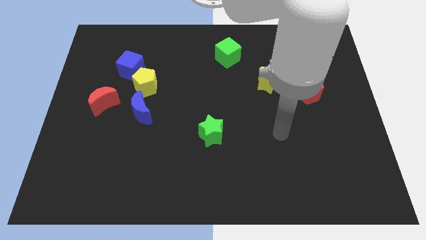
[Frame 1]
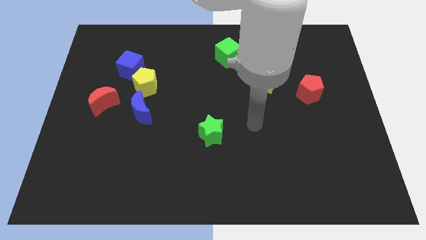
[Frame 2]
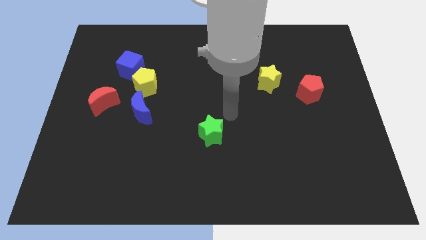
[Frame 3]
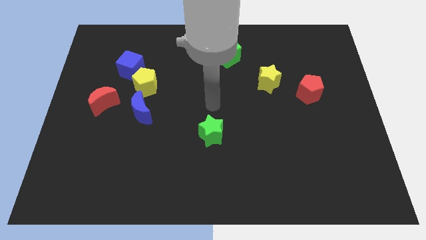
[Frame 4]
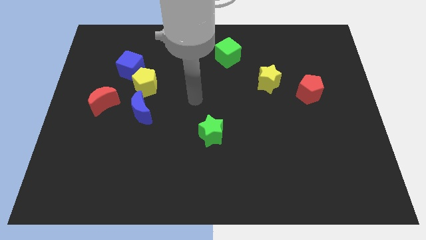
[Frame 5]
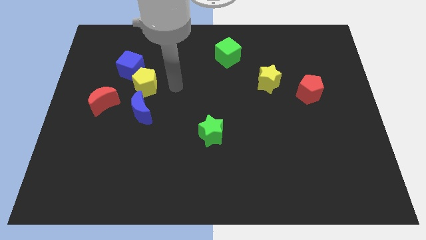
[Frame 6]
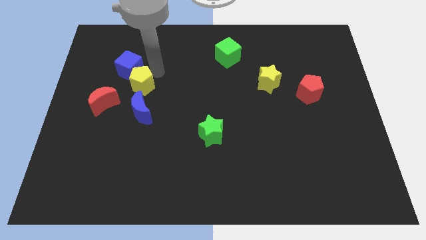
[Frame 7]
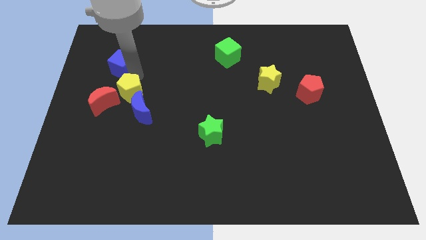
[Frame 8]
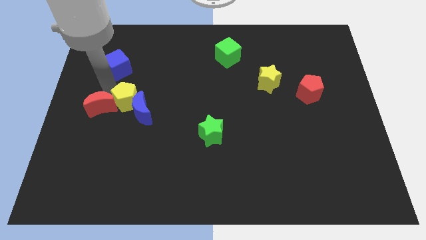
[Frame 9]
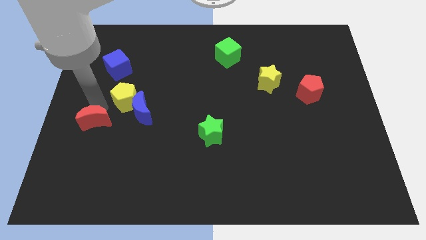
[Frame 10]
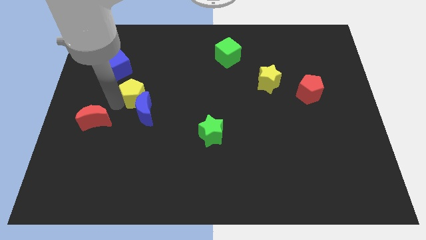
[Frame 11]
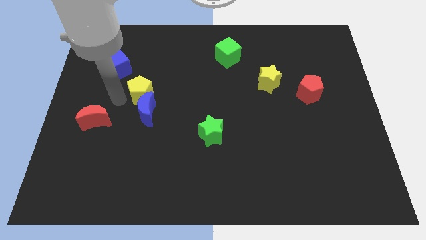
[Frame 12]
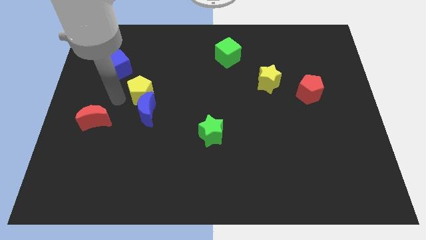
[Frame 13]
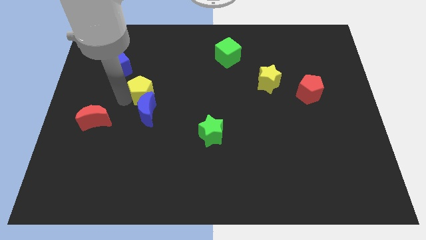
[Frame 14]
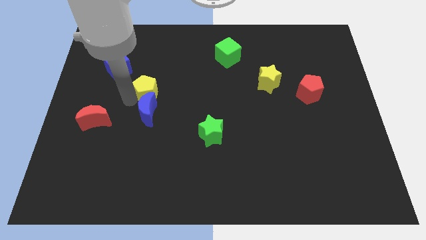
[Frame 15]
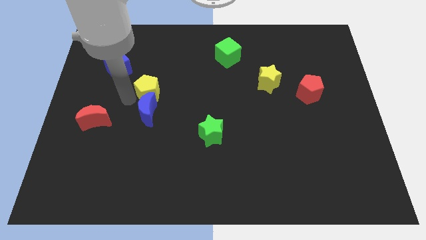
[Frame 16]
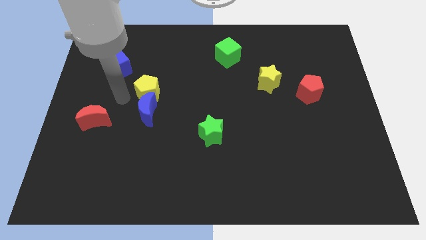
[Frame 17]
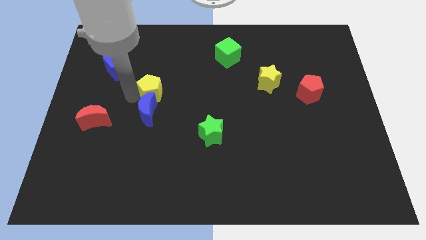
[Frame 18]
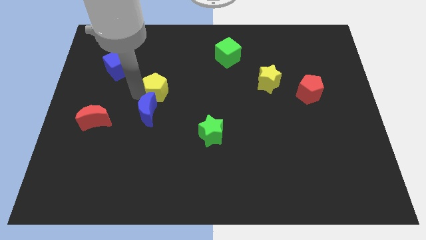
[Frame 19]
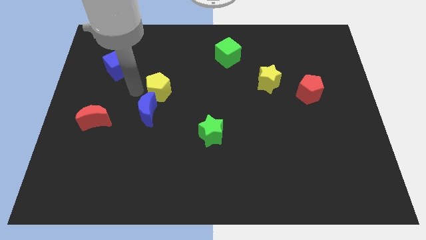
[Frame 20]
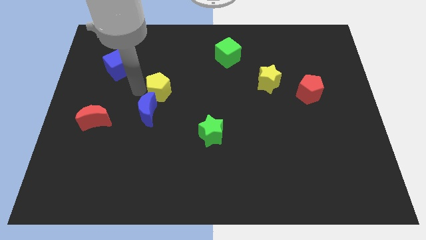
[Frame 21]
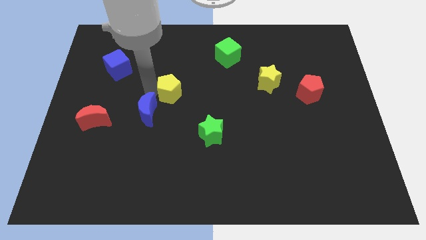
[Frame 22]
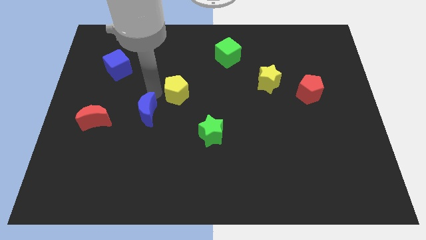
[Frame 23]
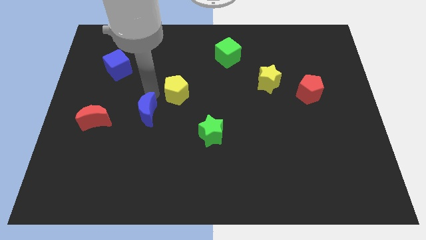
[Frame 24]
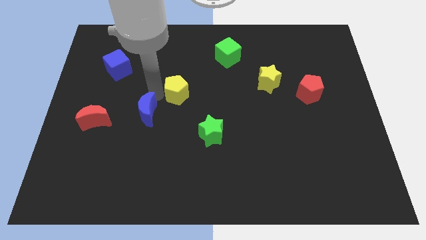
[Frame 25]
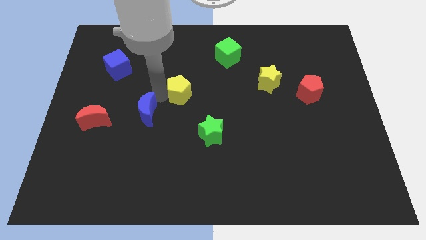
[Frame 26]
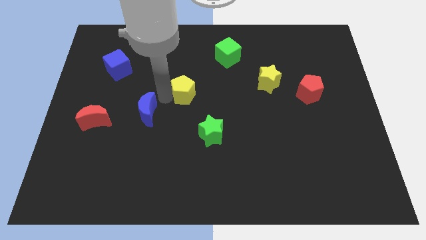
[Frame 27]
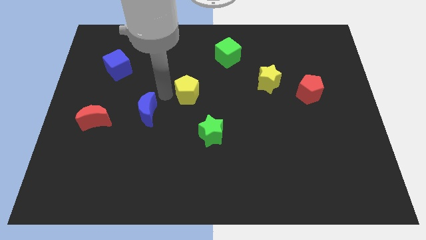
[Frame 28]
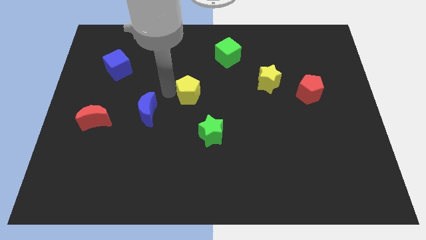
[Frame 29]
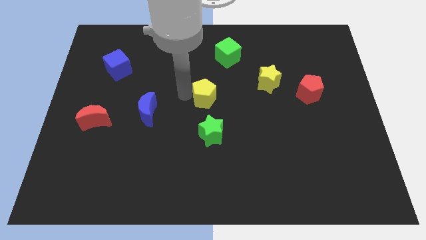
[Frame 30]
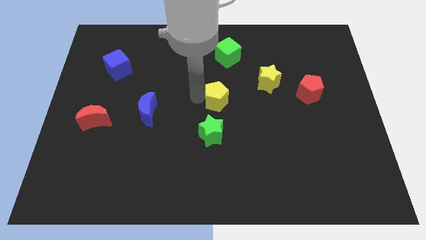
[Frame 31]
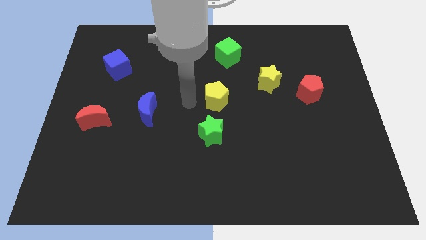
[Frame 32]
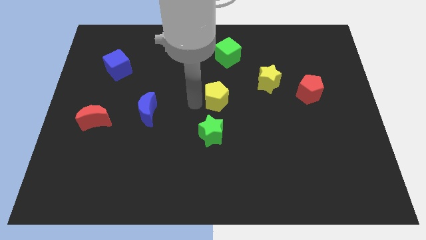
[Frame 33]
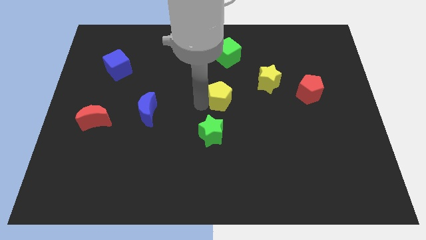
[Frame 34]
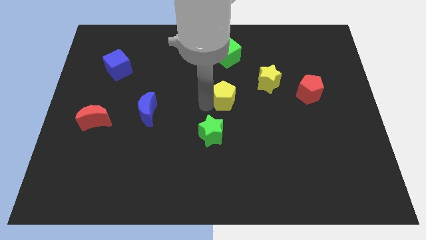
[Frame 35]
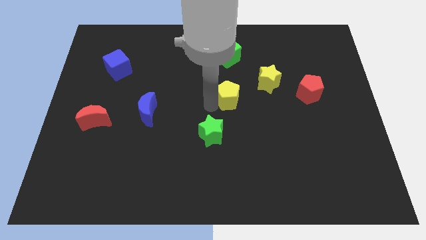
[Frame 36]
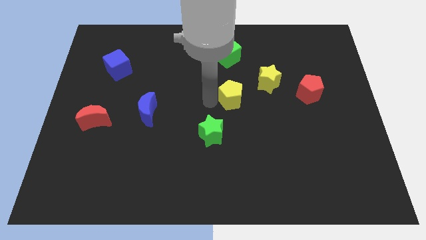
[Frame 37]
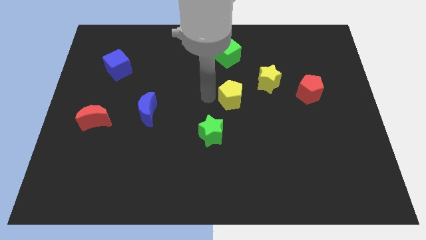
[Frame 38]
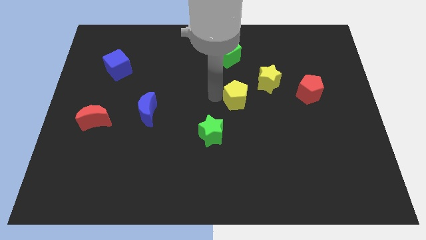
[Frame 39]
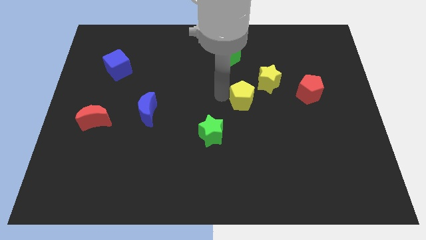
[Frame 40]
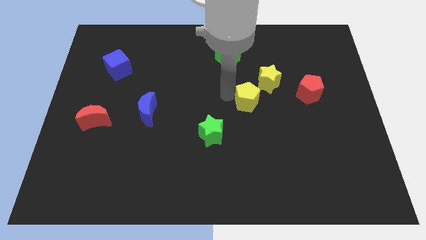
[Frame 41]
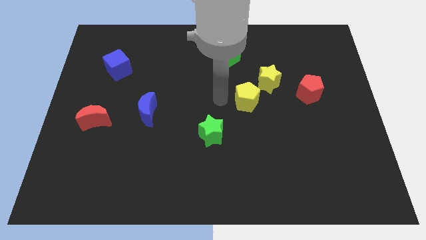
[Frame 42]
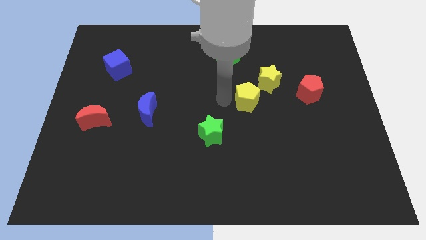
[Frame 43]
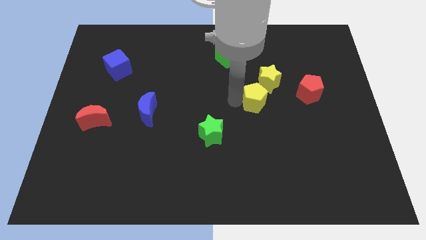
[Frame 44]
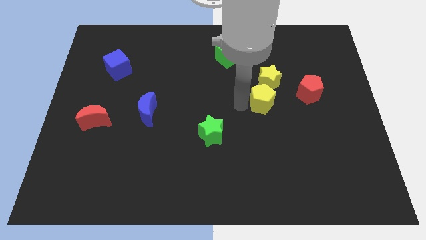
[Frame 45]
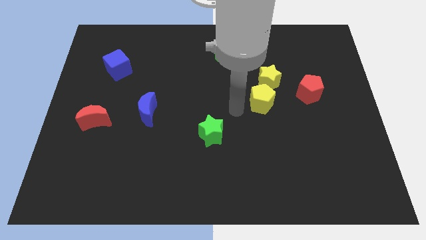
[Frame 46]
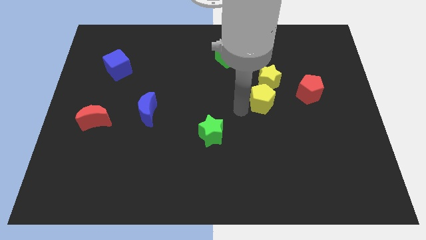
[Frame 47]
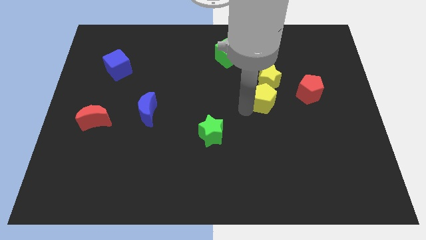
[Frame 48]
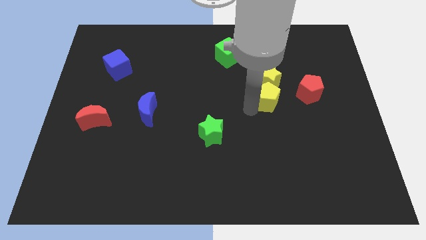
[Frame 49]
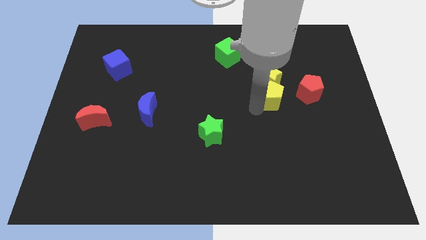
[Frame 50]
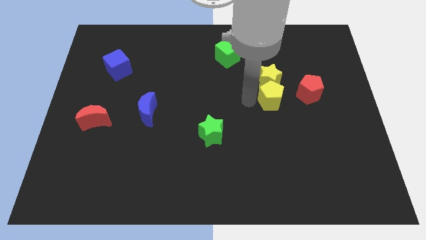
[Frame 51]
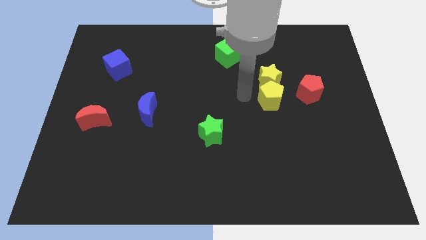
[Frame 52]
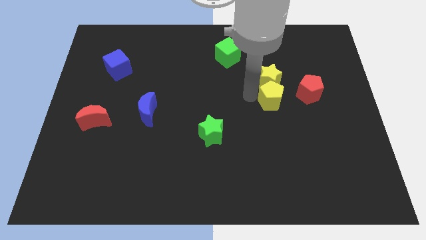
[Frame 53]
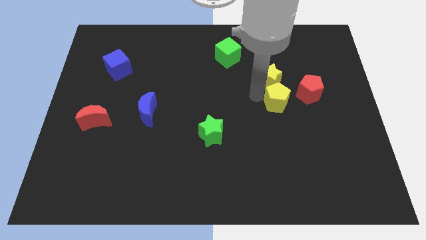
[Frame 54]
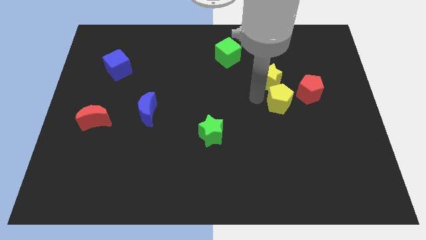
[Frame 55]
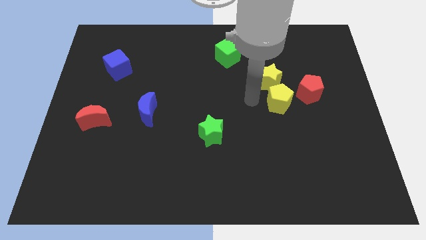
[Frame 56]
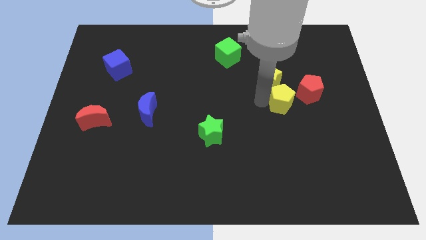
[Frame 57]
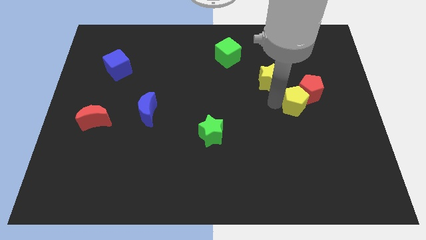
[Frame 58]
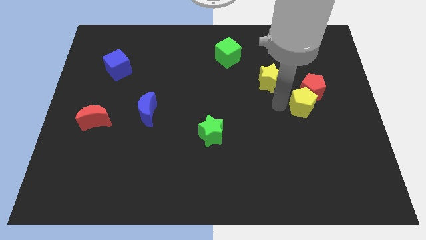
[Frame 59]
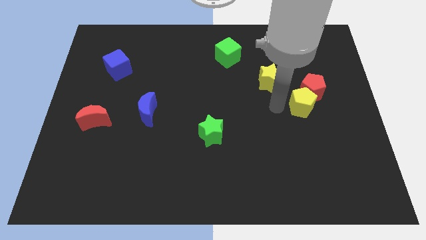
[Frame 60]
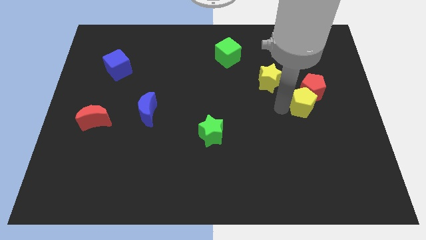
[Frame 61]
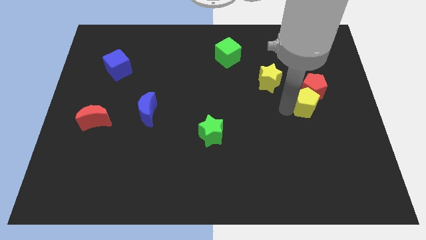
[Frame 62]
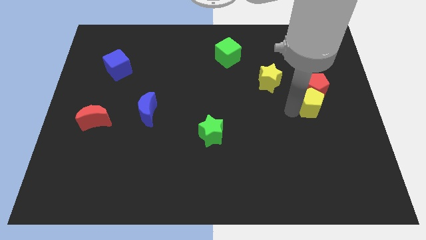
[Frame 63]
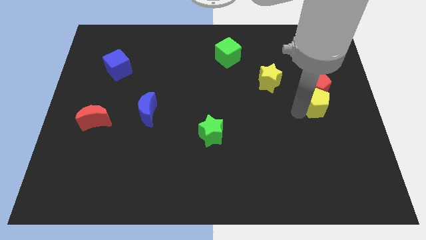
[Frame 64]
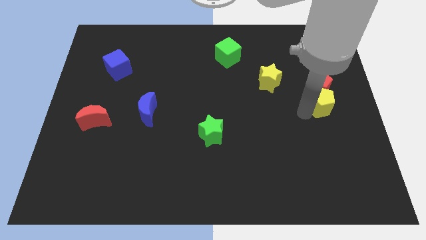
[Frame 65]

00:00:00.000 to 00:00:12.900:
push the yellow pentagon to the right side

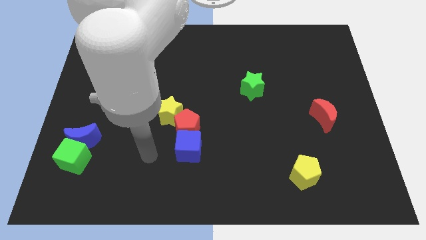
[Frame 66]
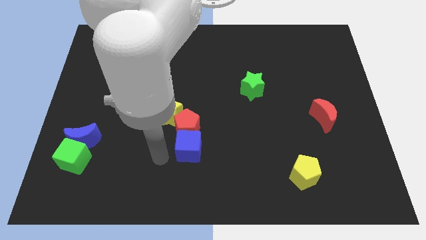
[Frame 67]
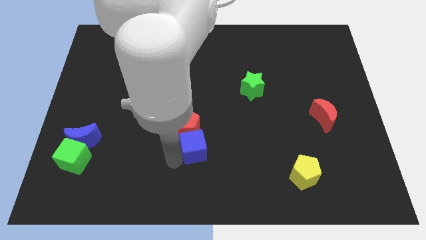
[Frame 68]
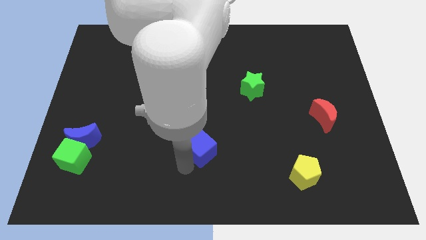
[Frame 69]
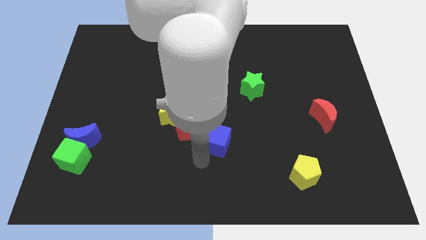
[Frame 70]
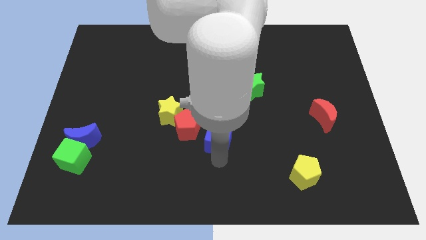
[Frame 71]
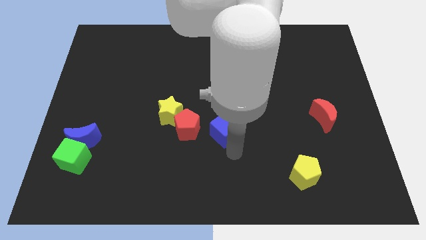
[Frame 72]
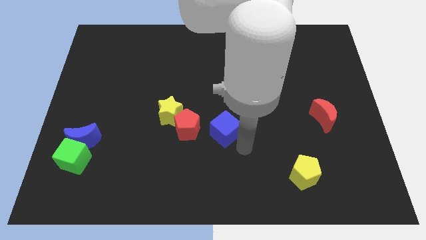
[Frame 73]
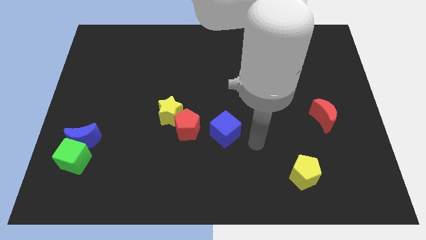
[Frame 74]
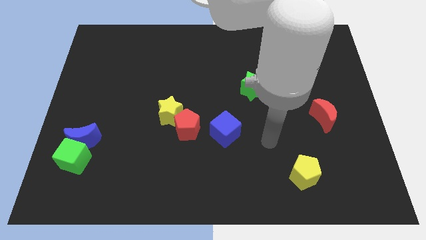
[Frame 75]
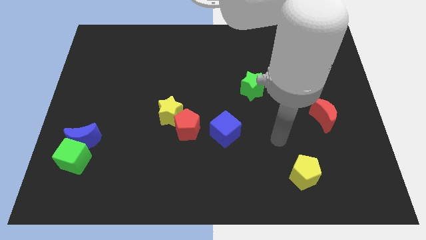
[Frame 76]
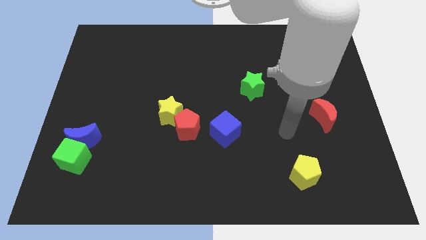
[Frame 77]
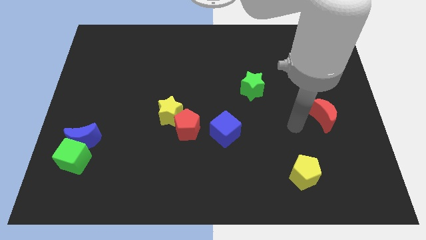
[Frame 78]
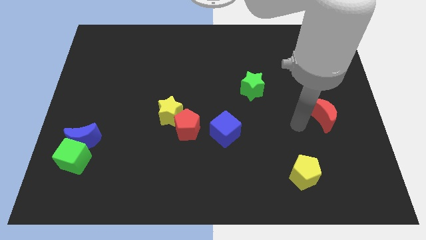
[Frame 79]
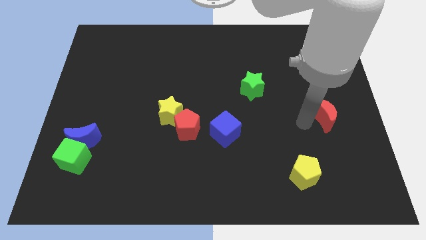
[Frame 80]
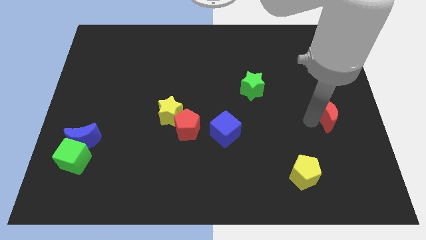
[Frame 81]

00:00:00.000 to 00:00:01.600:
push the red moon to the right side of the board
